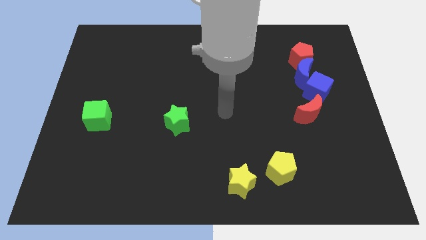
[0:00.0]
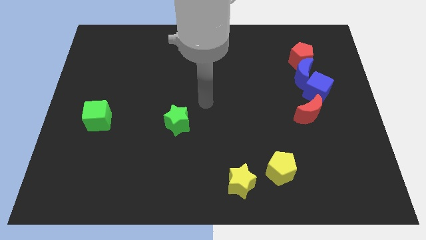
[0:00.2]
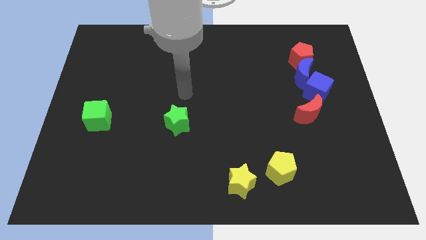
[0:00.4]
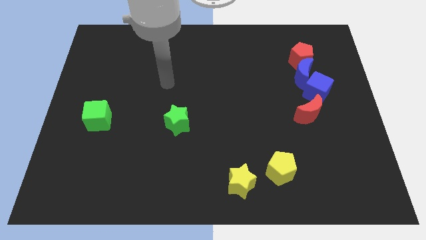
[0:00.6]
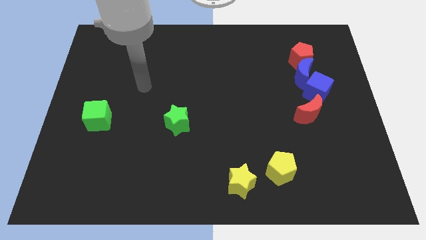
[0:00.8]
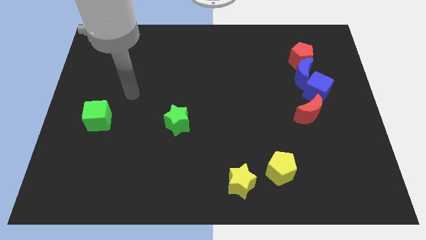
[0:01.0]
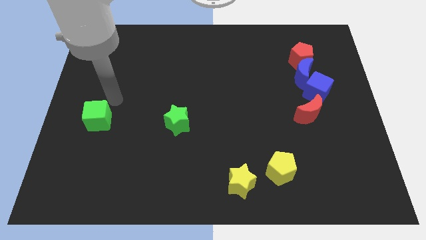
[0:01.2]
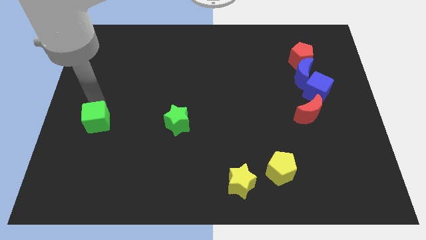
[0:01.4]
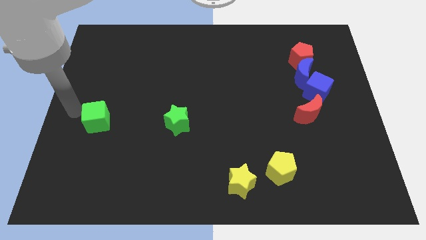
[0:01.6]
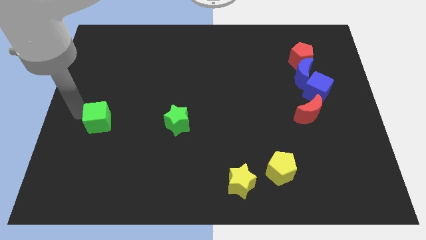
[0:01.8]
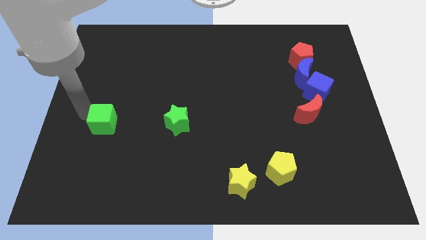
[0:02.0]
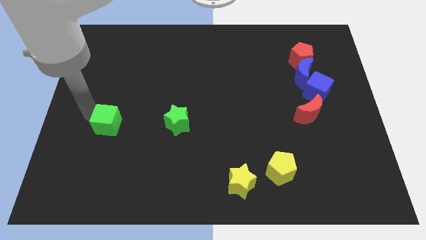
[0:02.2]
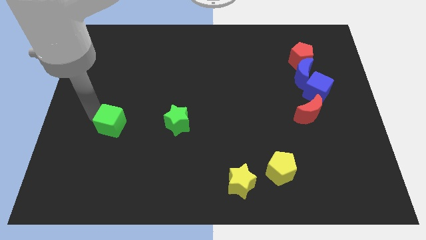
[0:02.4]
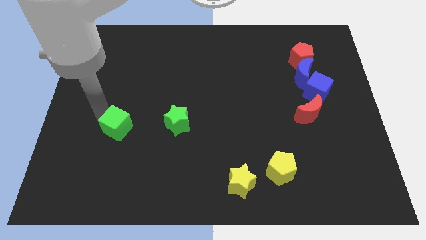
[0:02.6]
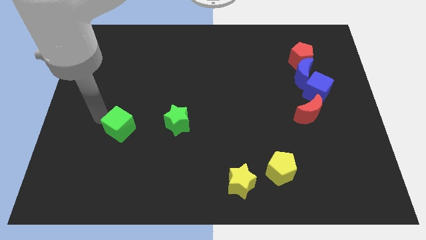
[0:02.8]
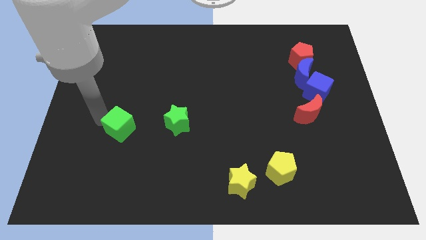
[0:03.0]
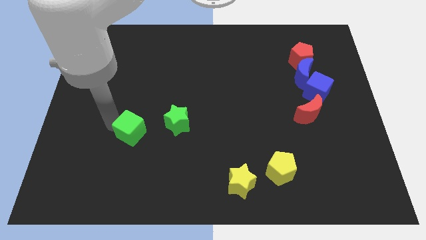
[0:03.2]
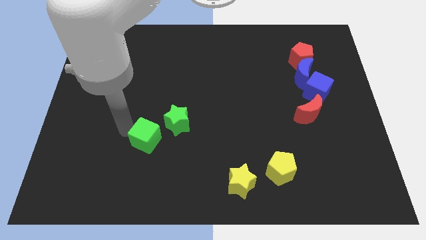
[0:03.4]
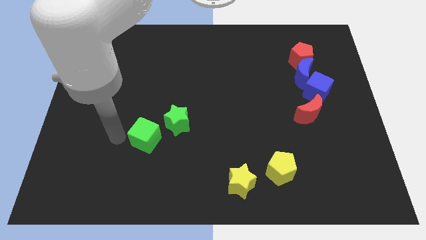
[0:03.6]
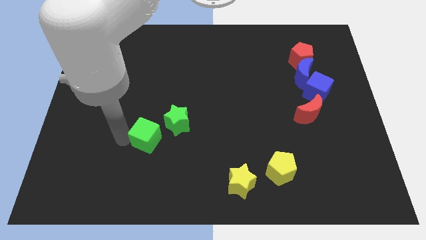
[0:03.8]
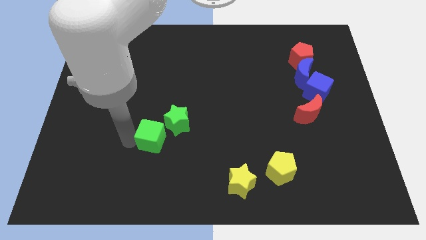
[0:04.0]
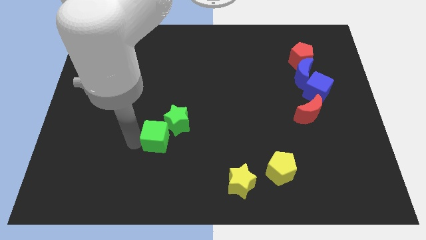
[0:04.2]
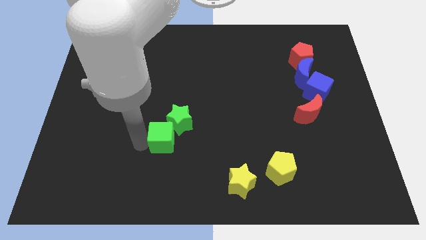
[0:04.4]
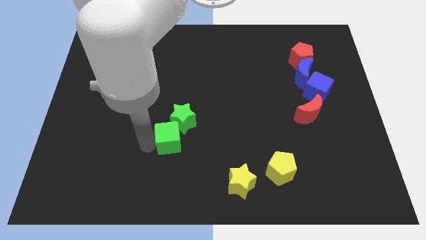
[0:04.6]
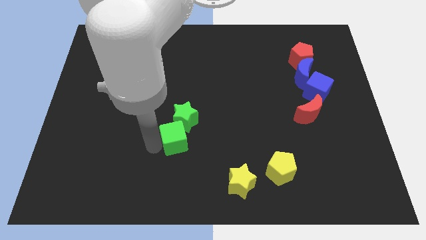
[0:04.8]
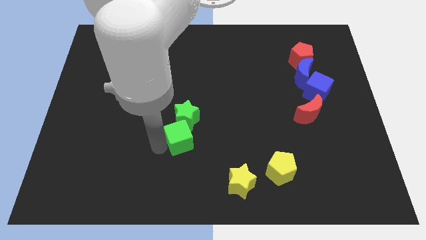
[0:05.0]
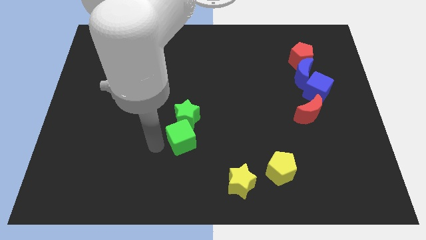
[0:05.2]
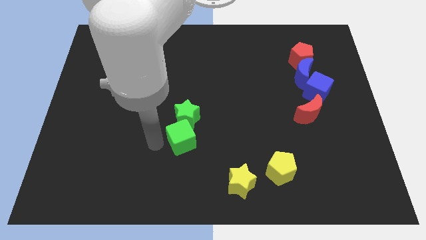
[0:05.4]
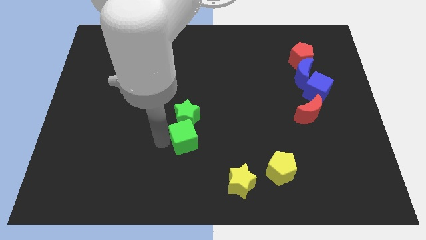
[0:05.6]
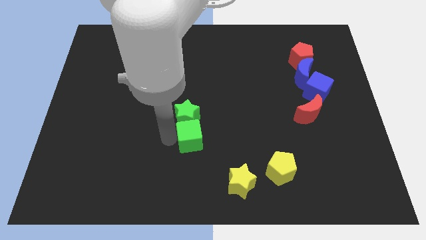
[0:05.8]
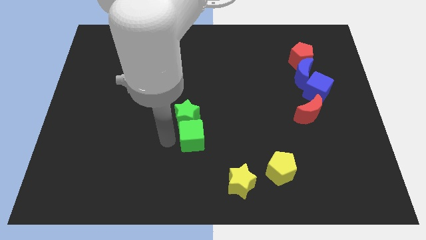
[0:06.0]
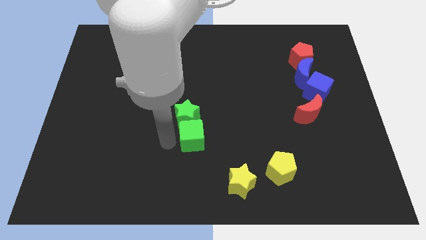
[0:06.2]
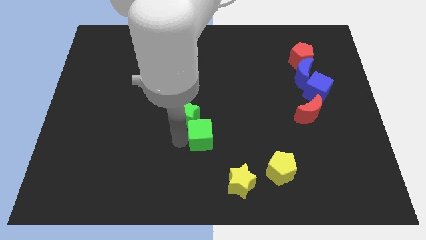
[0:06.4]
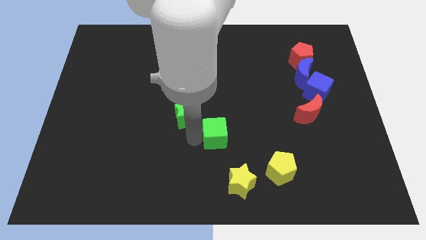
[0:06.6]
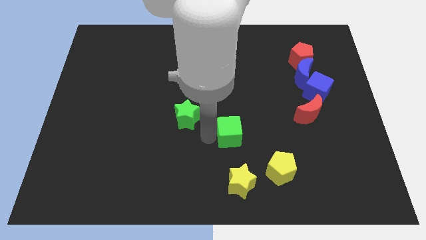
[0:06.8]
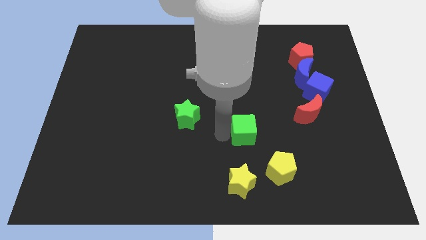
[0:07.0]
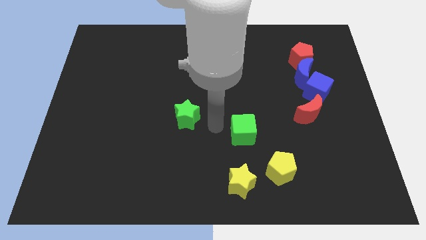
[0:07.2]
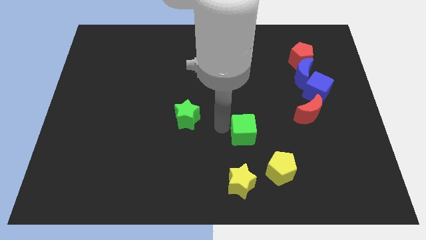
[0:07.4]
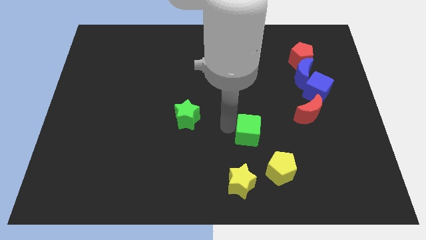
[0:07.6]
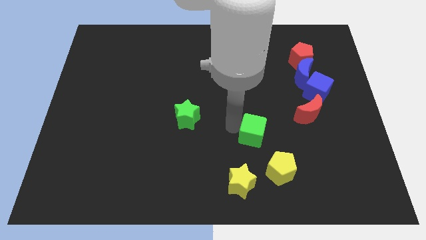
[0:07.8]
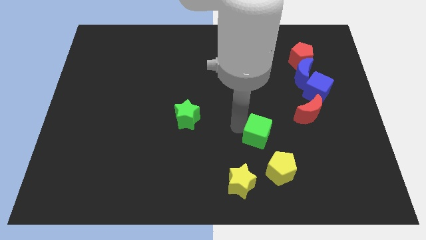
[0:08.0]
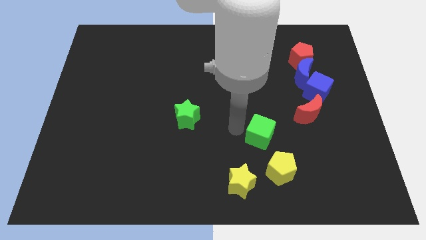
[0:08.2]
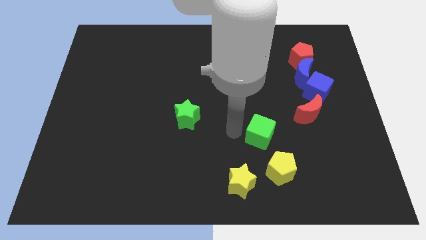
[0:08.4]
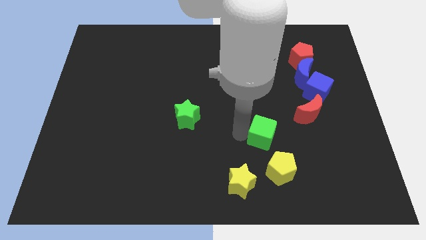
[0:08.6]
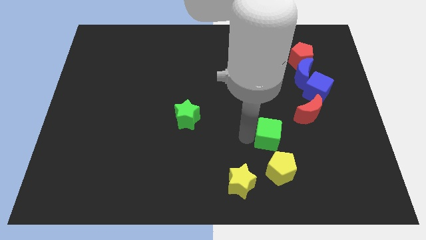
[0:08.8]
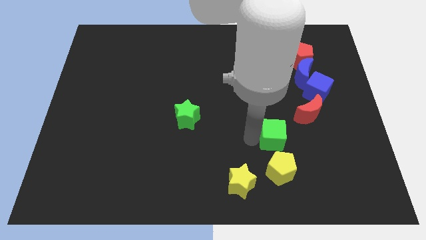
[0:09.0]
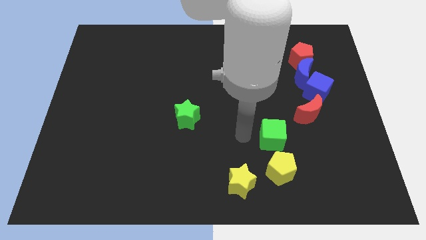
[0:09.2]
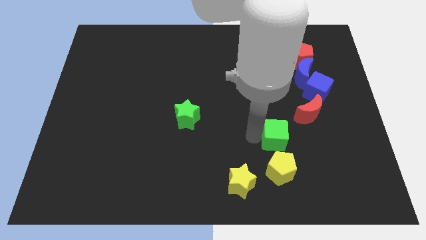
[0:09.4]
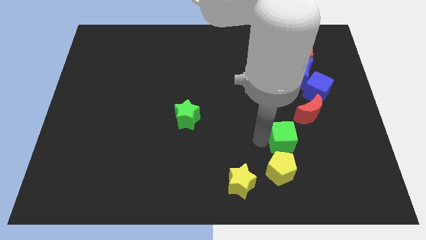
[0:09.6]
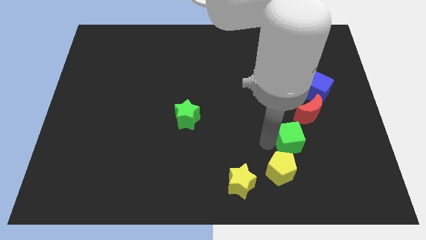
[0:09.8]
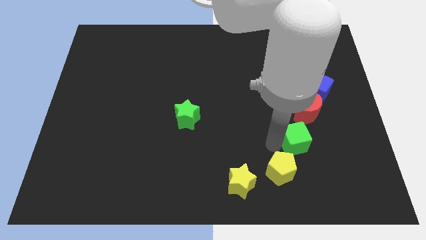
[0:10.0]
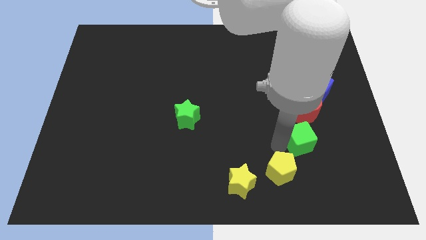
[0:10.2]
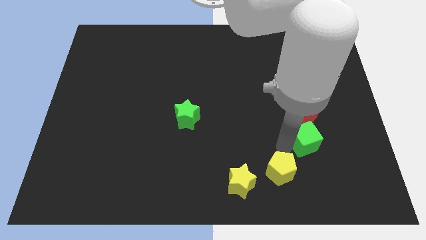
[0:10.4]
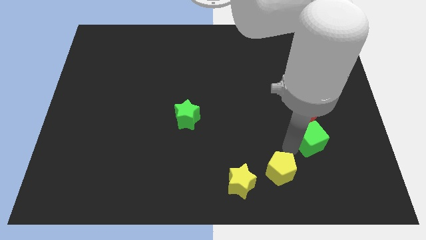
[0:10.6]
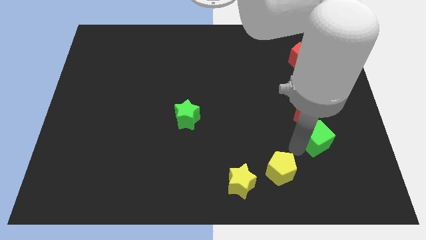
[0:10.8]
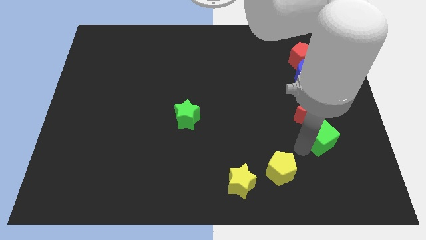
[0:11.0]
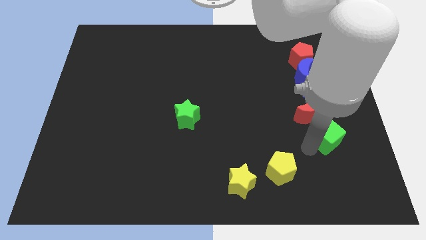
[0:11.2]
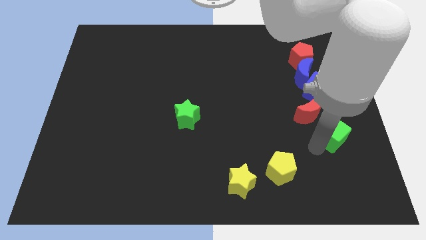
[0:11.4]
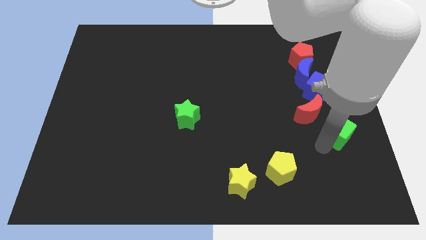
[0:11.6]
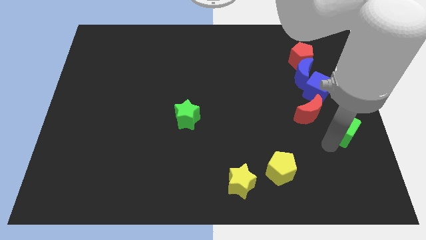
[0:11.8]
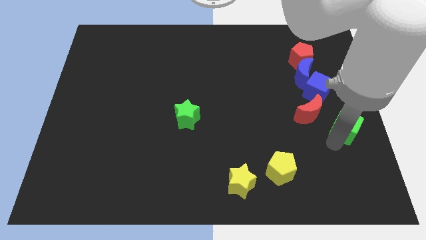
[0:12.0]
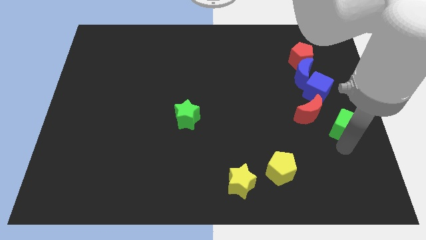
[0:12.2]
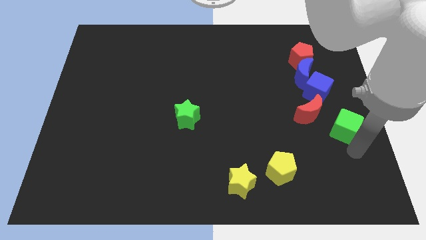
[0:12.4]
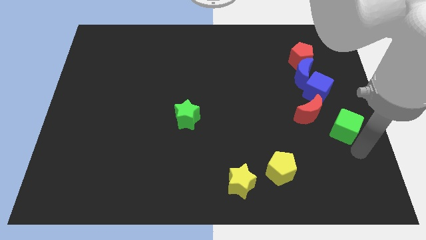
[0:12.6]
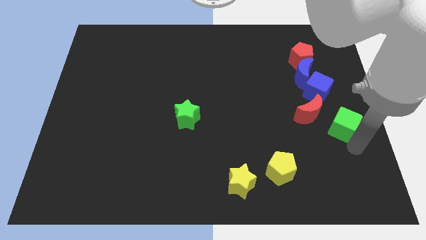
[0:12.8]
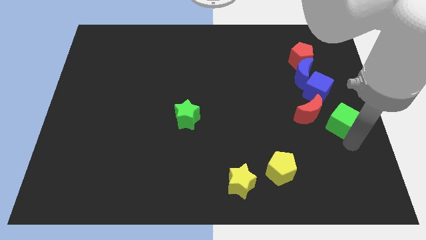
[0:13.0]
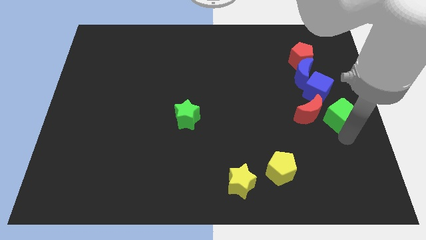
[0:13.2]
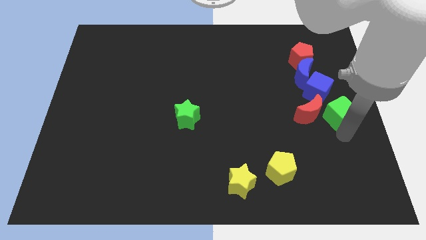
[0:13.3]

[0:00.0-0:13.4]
slide the green cube diagonally up and to the right of the red moon

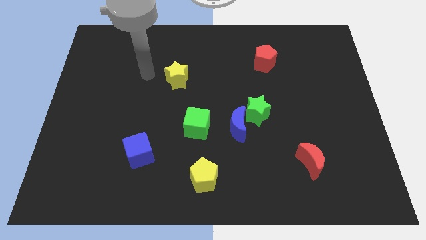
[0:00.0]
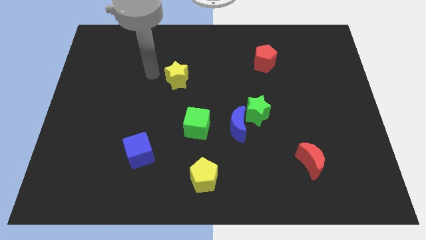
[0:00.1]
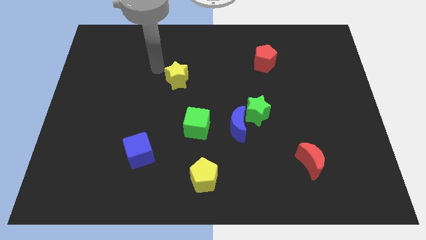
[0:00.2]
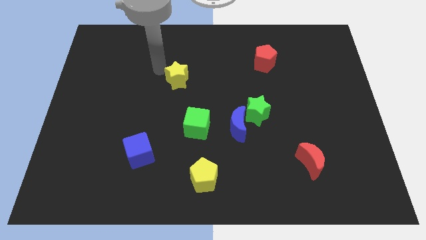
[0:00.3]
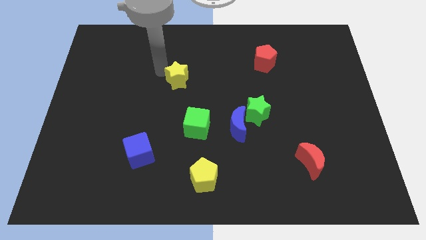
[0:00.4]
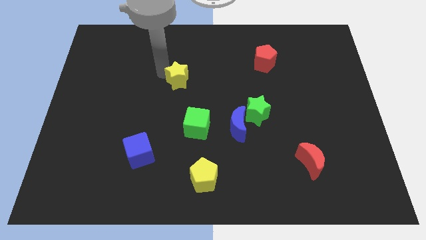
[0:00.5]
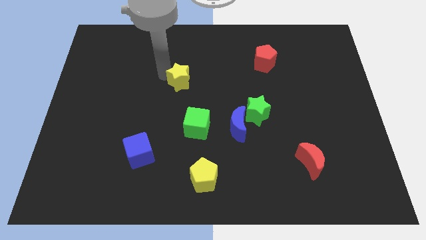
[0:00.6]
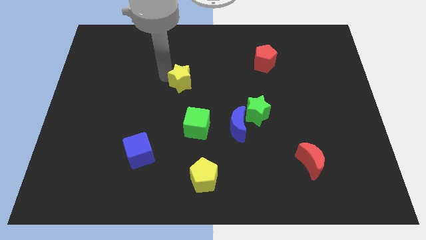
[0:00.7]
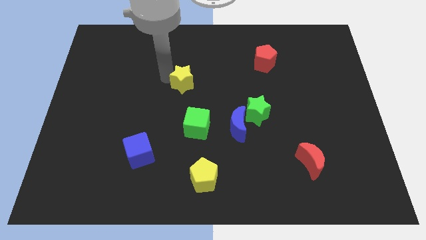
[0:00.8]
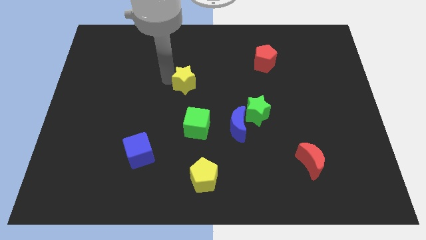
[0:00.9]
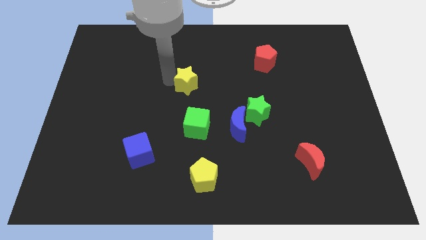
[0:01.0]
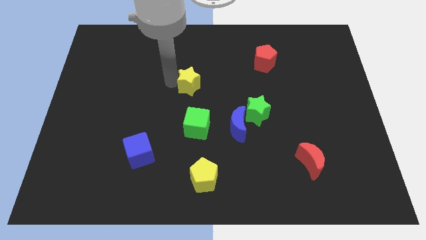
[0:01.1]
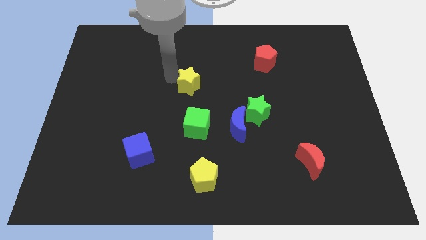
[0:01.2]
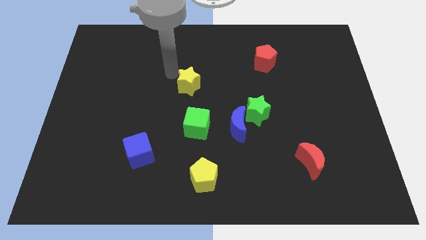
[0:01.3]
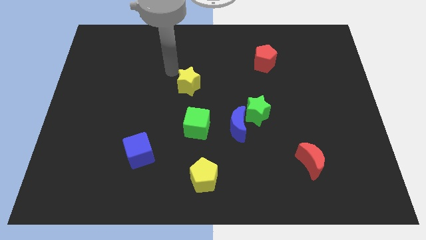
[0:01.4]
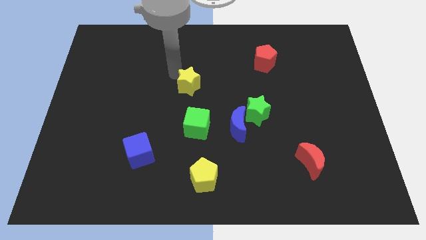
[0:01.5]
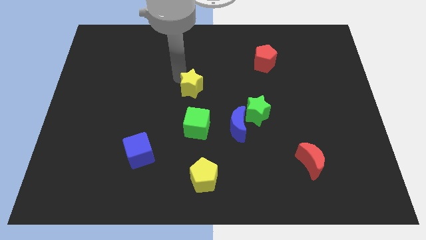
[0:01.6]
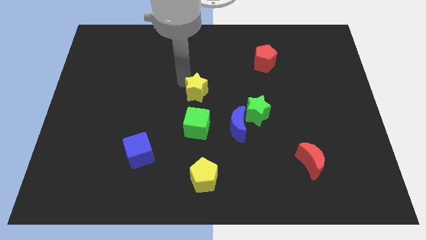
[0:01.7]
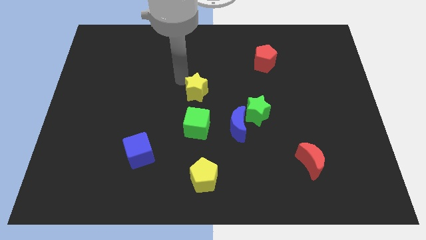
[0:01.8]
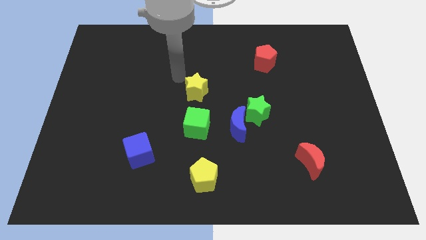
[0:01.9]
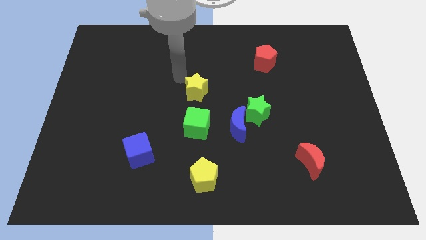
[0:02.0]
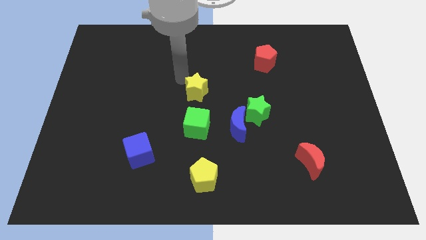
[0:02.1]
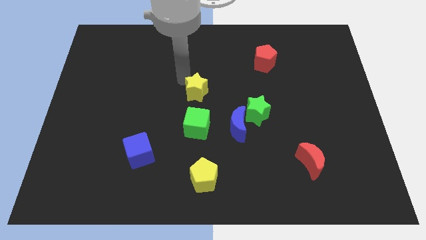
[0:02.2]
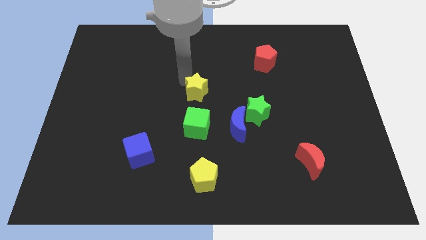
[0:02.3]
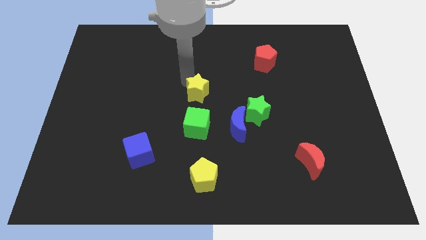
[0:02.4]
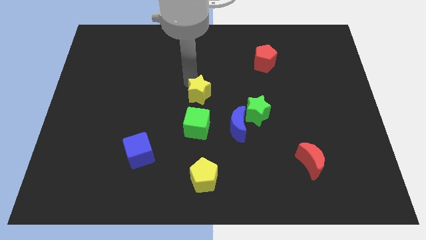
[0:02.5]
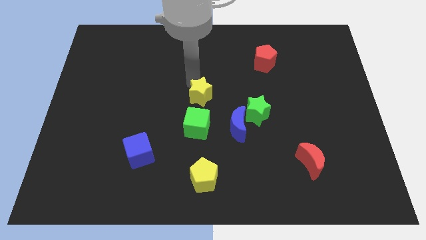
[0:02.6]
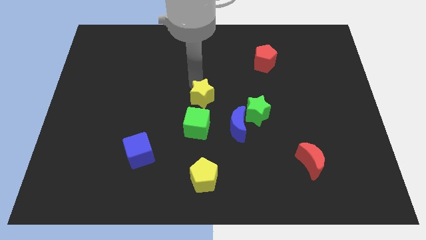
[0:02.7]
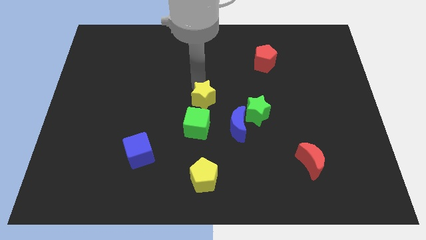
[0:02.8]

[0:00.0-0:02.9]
push the yellow star diagonally up and to the right of the green cube
